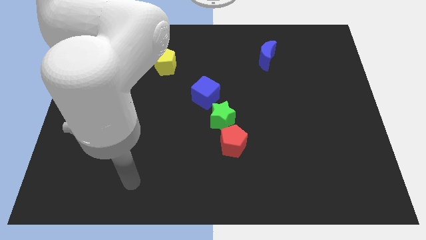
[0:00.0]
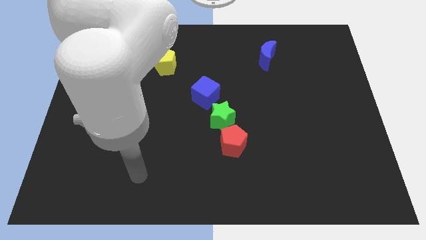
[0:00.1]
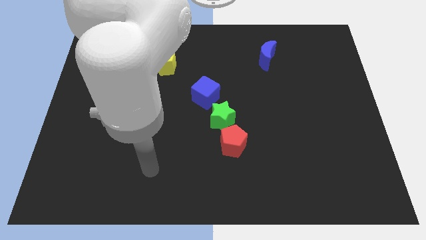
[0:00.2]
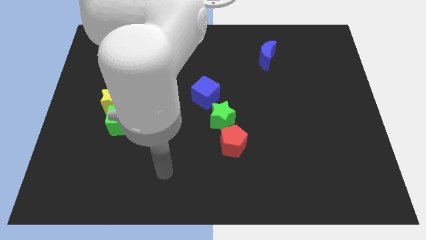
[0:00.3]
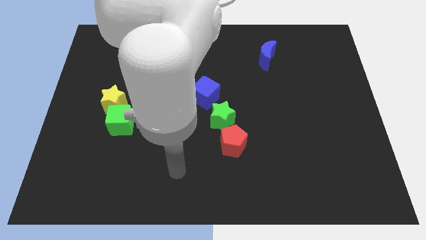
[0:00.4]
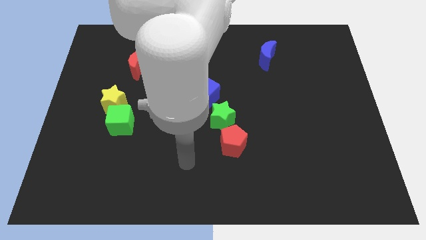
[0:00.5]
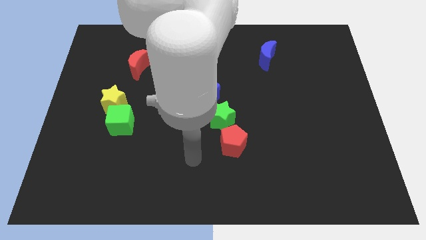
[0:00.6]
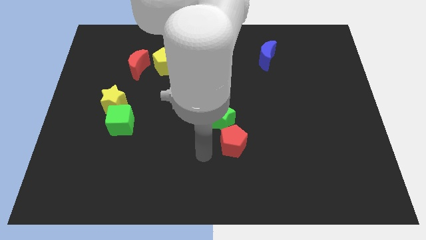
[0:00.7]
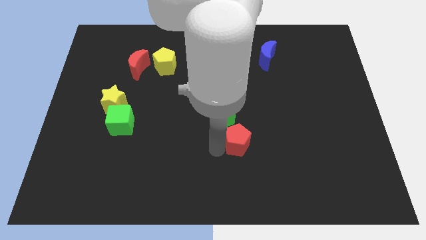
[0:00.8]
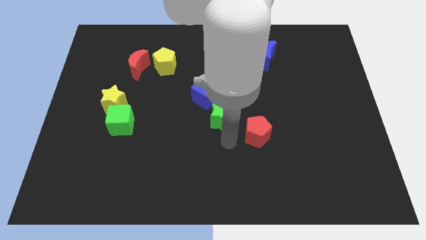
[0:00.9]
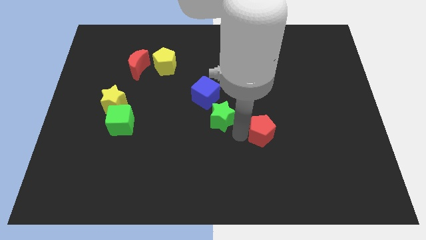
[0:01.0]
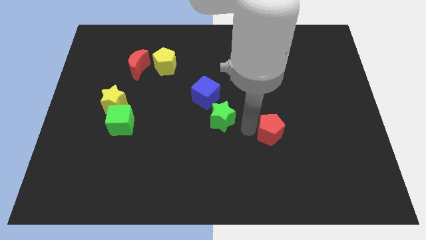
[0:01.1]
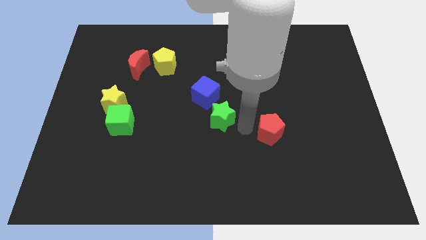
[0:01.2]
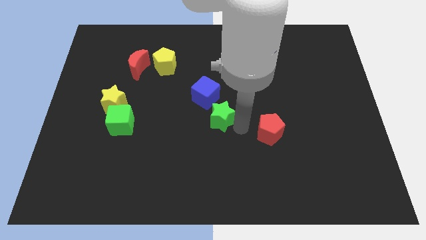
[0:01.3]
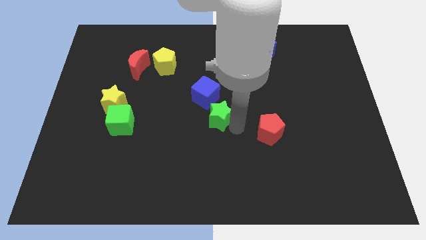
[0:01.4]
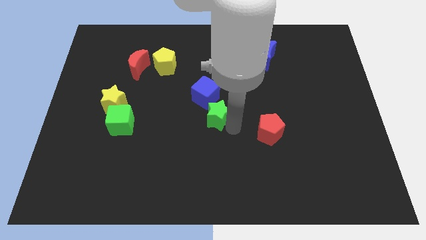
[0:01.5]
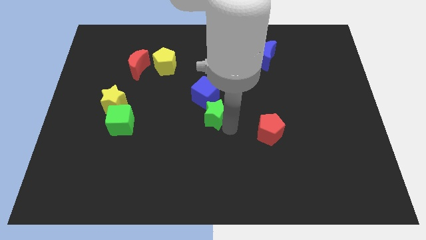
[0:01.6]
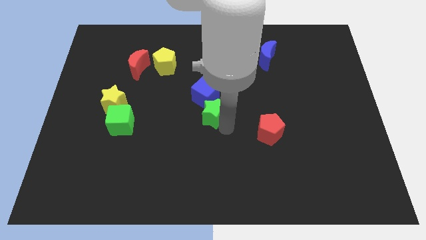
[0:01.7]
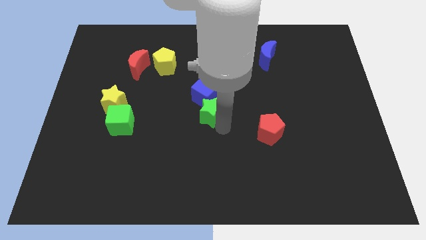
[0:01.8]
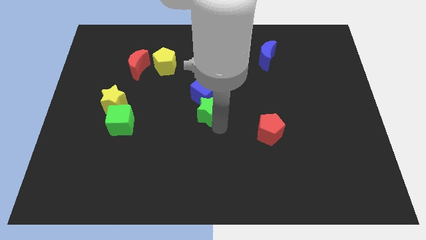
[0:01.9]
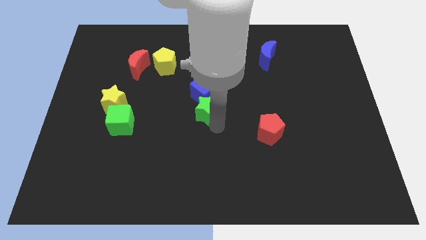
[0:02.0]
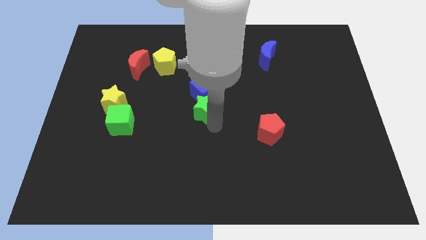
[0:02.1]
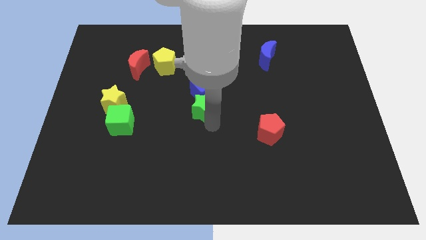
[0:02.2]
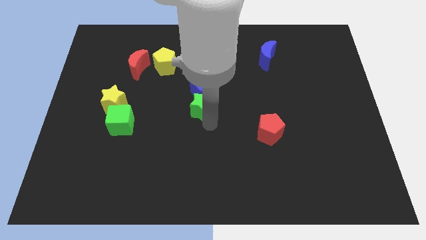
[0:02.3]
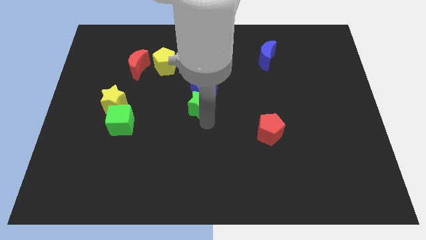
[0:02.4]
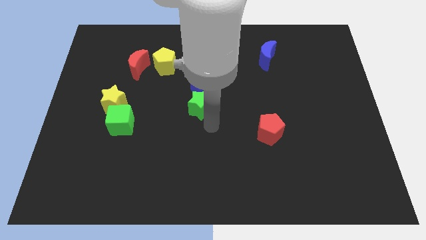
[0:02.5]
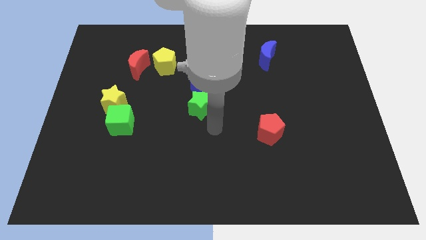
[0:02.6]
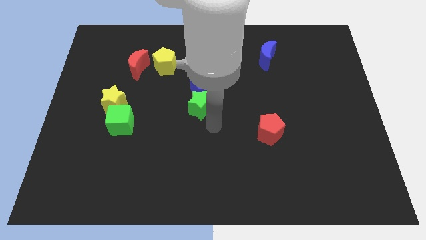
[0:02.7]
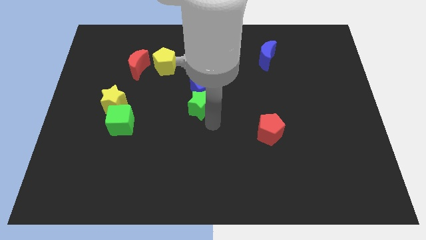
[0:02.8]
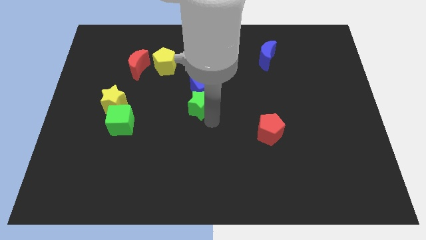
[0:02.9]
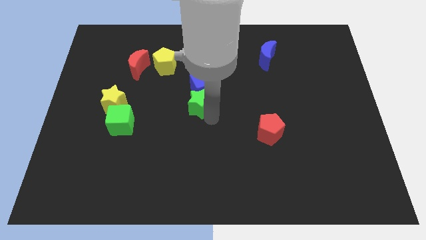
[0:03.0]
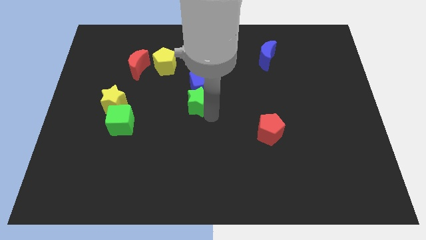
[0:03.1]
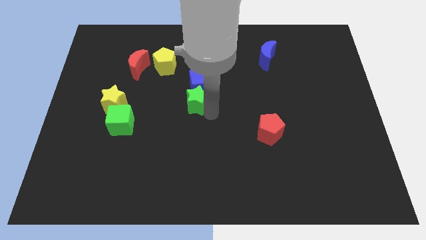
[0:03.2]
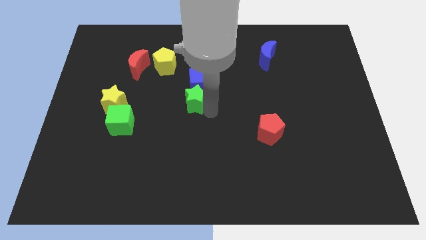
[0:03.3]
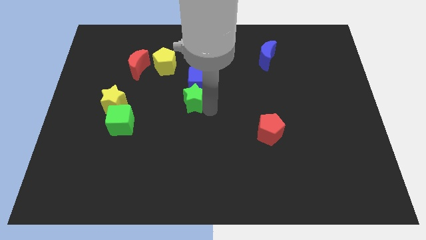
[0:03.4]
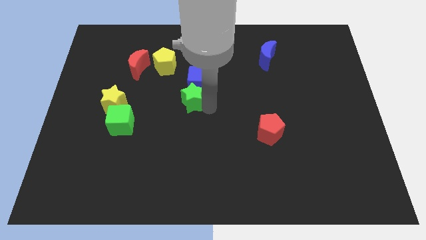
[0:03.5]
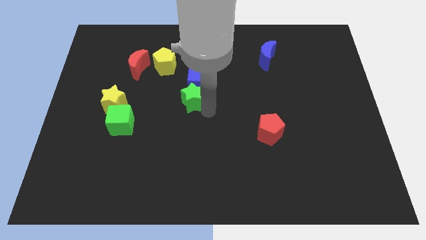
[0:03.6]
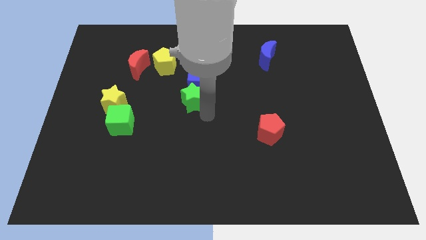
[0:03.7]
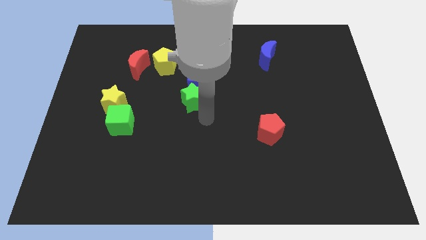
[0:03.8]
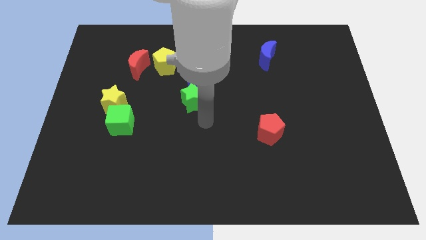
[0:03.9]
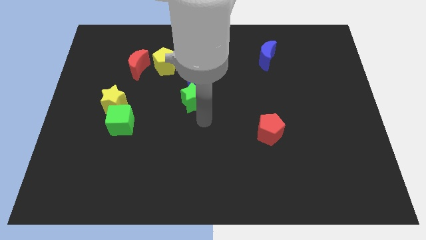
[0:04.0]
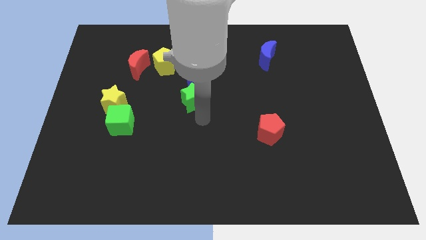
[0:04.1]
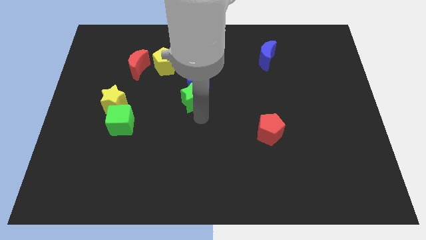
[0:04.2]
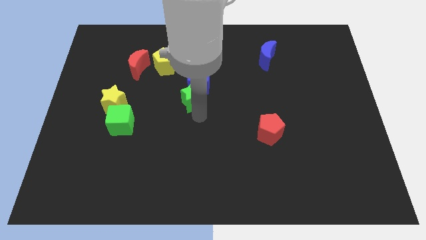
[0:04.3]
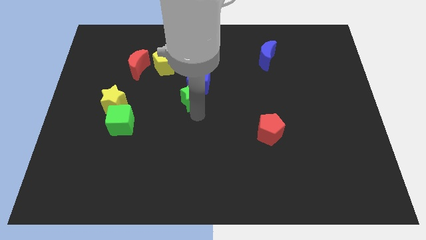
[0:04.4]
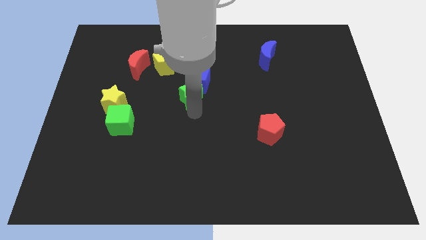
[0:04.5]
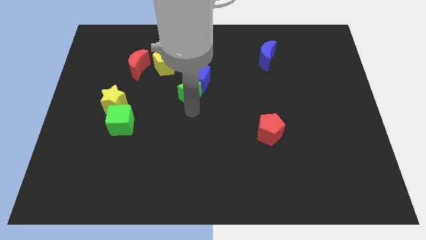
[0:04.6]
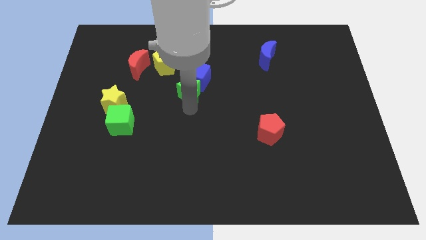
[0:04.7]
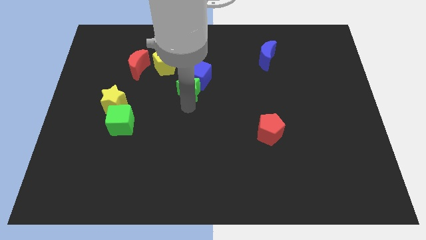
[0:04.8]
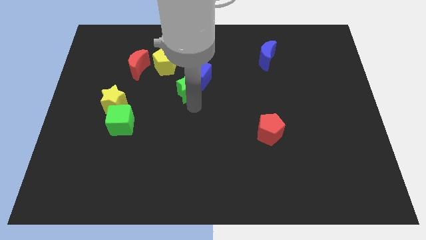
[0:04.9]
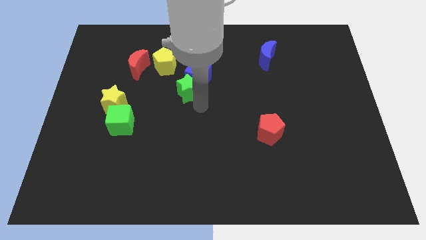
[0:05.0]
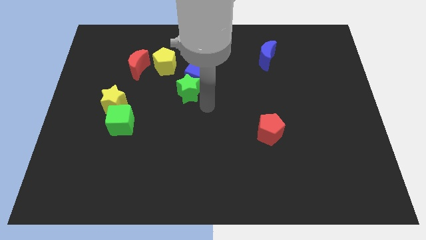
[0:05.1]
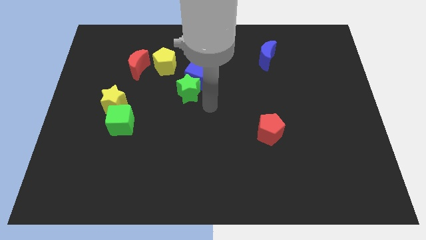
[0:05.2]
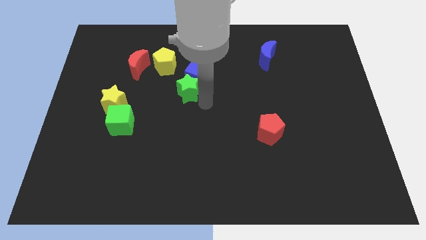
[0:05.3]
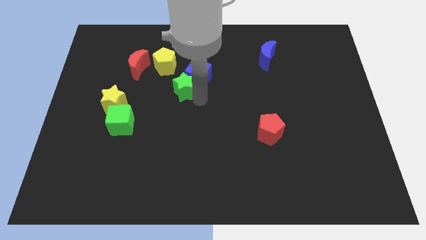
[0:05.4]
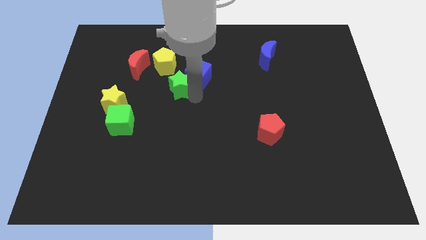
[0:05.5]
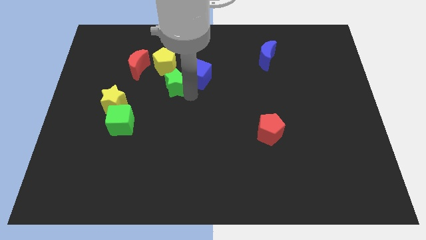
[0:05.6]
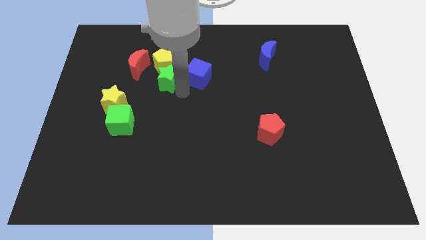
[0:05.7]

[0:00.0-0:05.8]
slide the green star towards the yellow pentagon

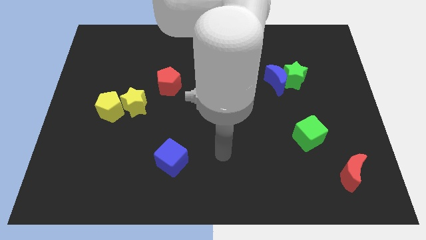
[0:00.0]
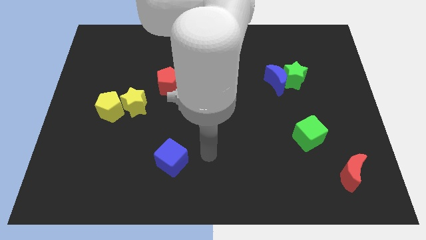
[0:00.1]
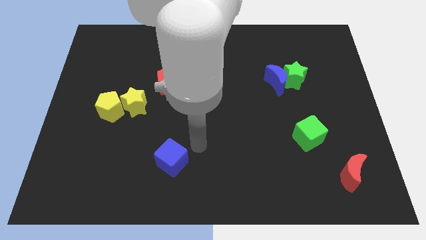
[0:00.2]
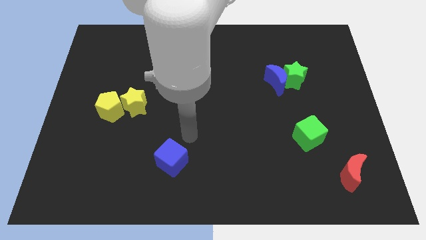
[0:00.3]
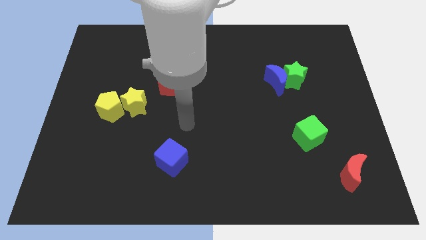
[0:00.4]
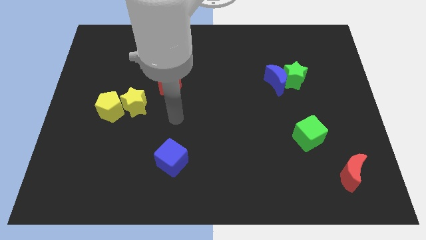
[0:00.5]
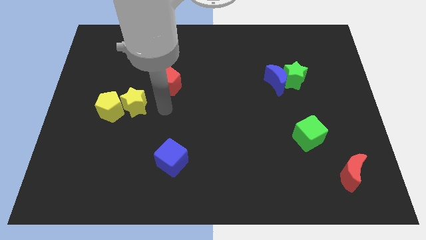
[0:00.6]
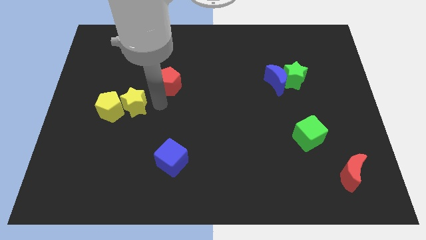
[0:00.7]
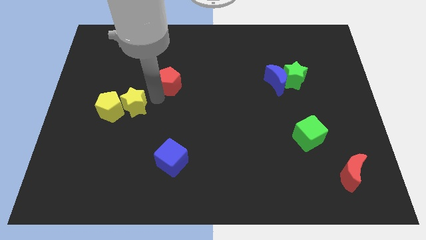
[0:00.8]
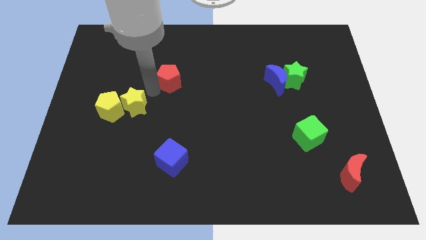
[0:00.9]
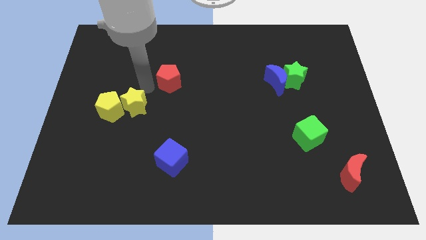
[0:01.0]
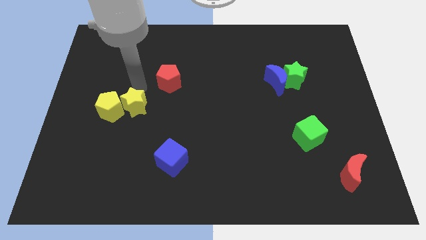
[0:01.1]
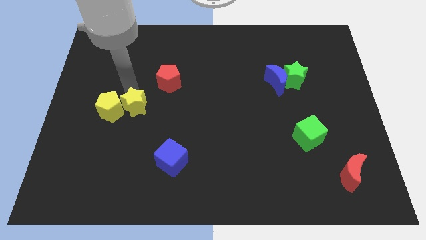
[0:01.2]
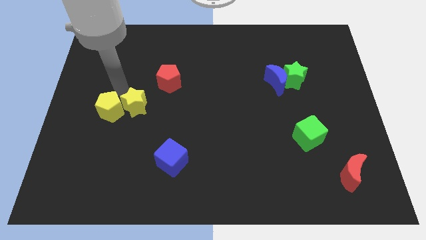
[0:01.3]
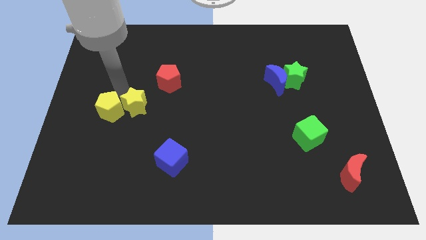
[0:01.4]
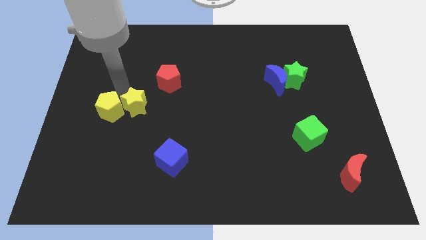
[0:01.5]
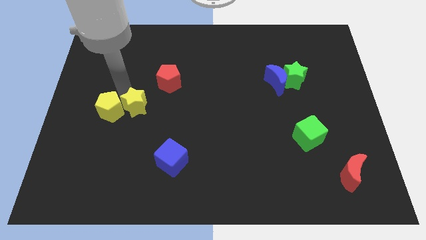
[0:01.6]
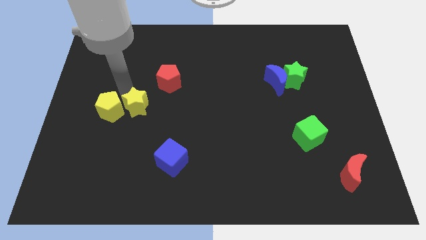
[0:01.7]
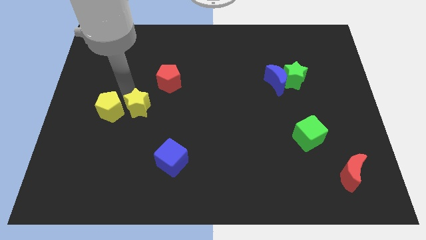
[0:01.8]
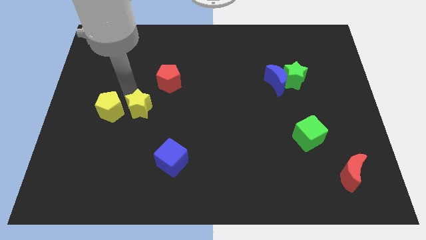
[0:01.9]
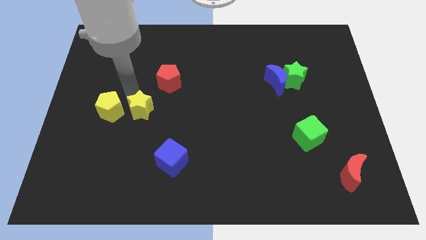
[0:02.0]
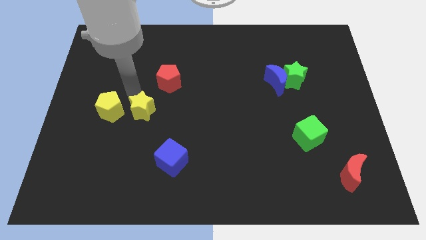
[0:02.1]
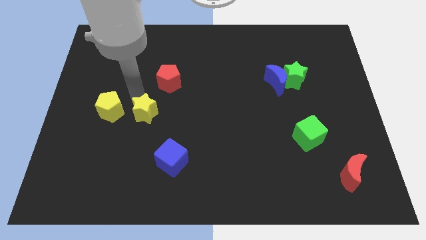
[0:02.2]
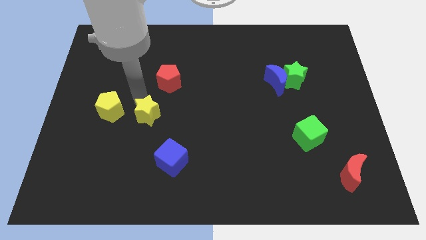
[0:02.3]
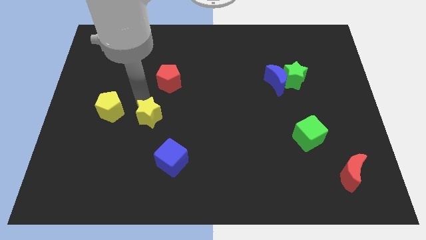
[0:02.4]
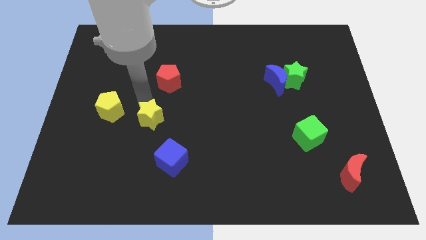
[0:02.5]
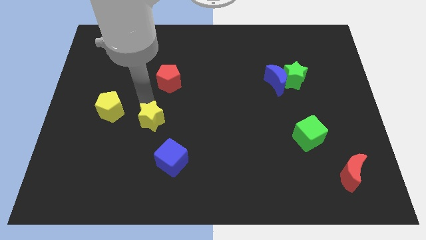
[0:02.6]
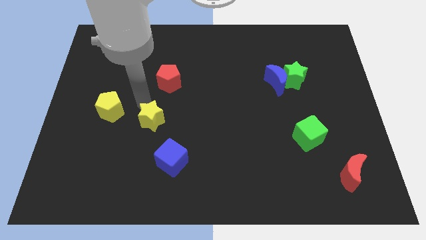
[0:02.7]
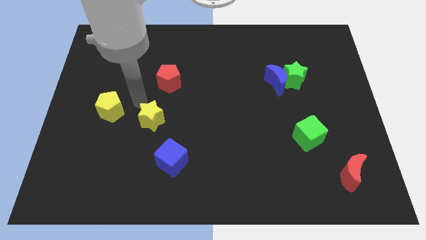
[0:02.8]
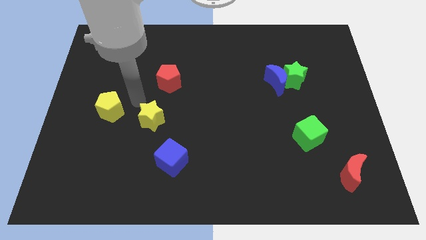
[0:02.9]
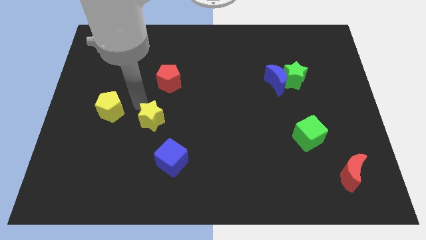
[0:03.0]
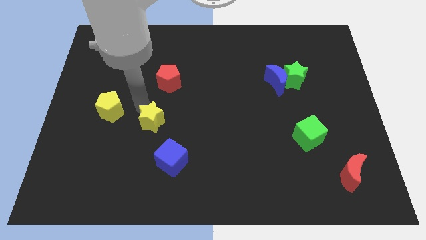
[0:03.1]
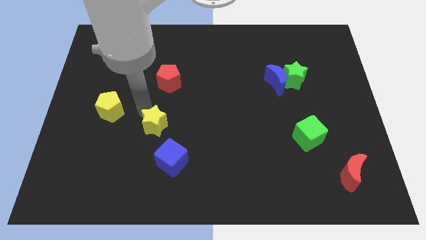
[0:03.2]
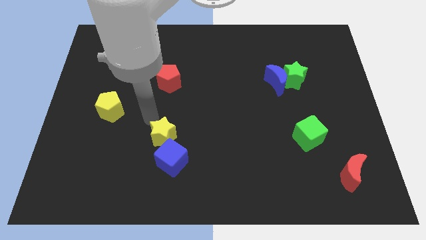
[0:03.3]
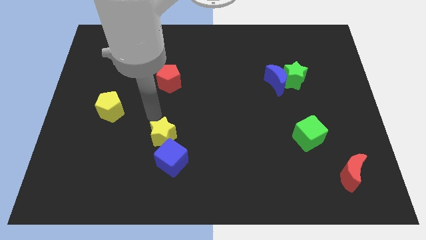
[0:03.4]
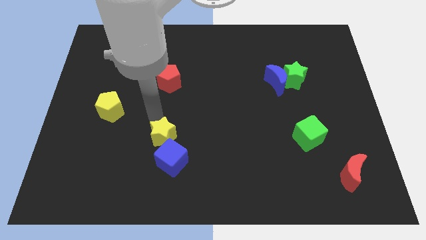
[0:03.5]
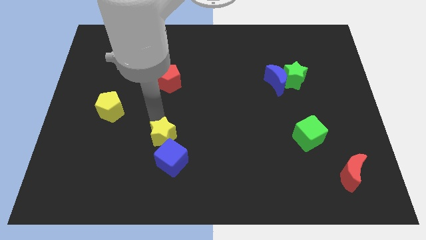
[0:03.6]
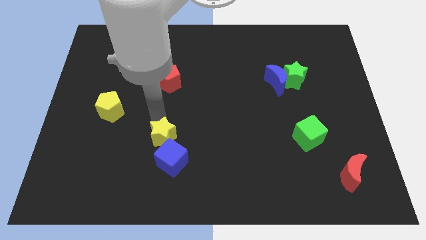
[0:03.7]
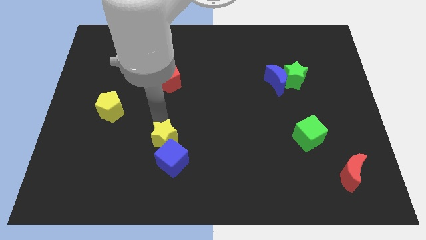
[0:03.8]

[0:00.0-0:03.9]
slide the yellow star next to the blue cube
